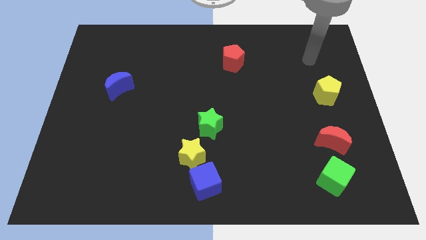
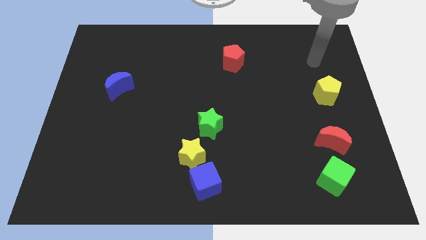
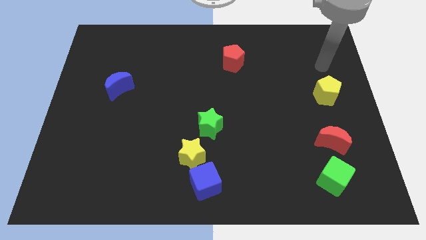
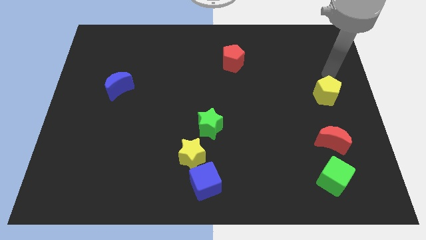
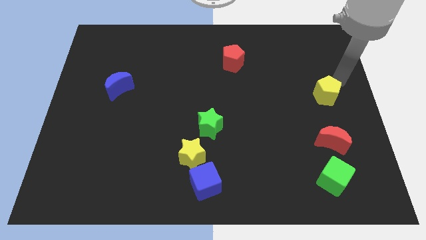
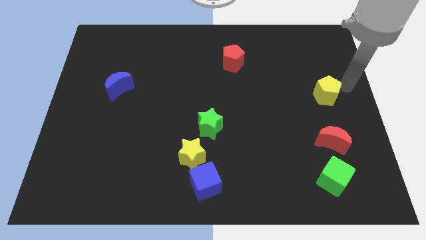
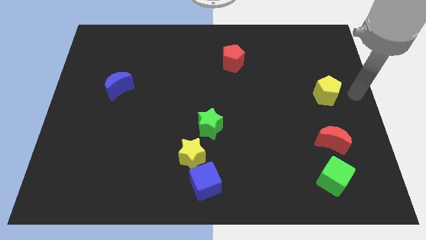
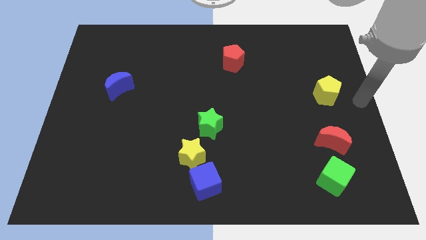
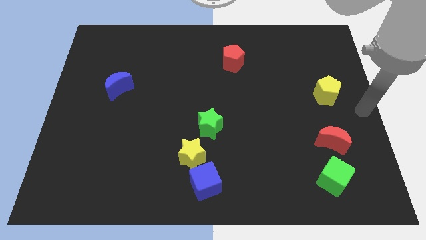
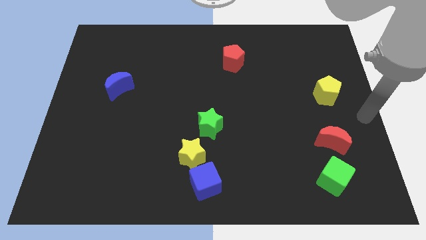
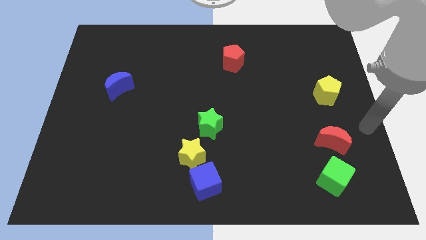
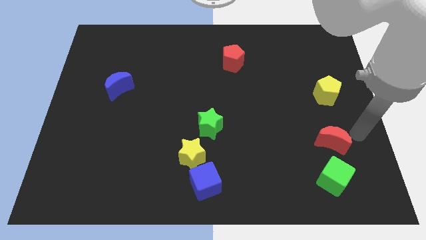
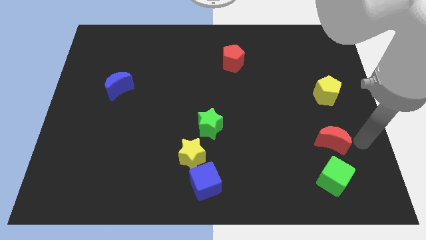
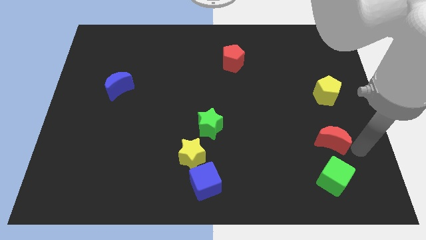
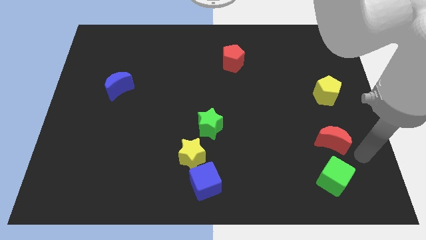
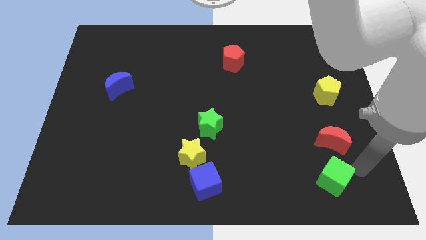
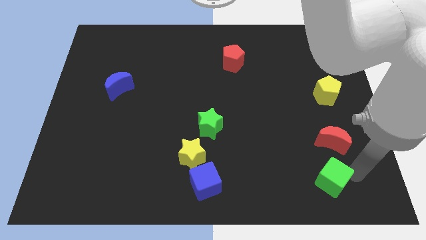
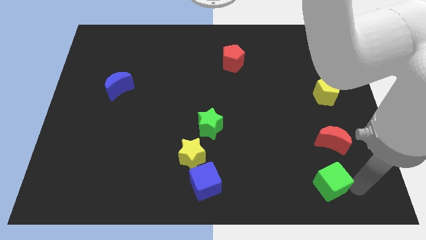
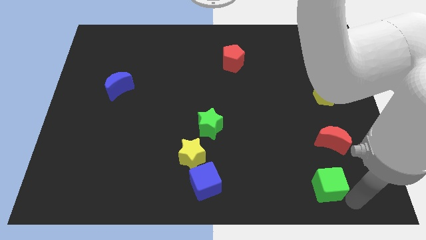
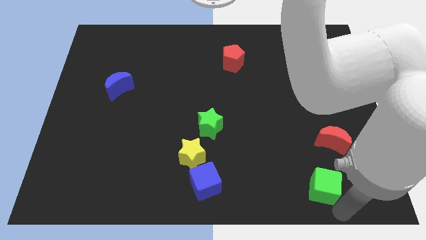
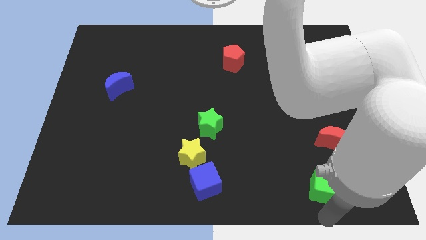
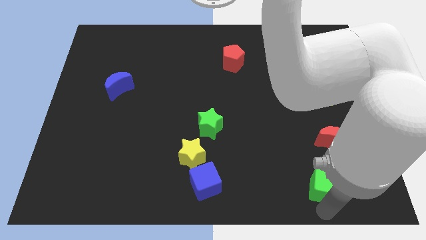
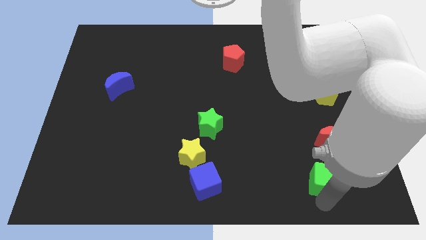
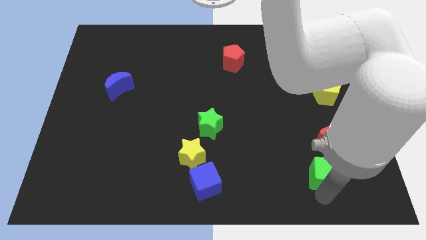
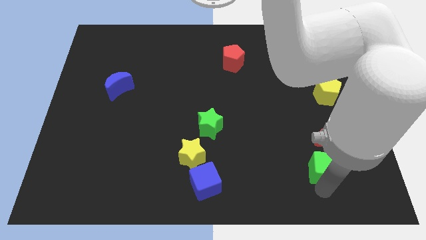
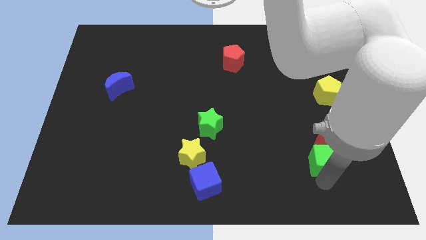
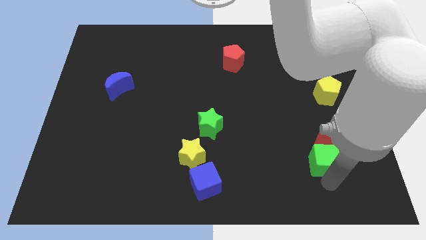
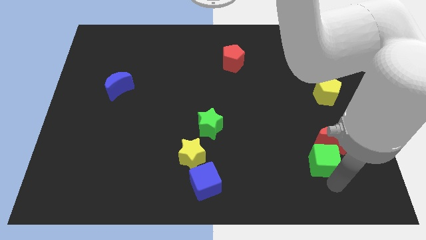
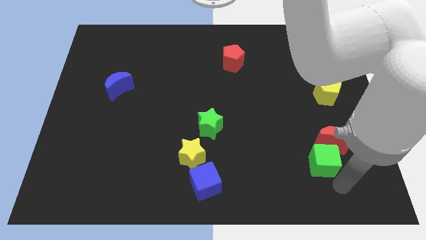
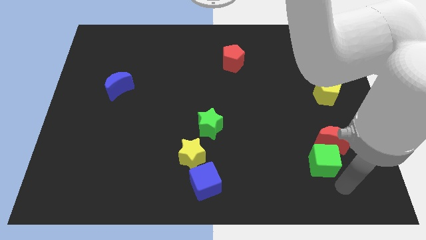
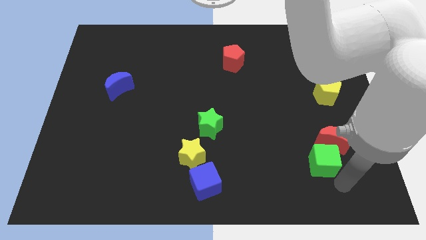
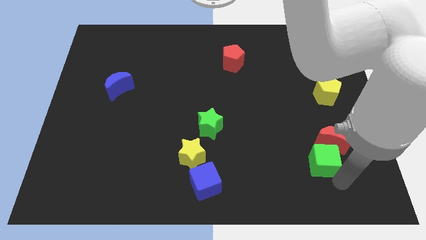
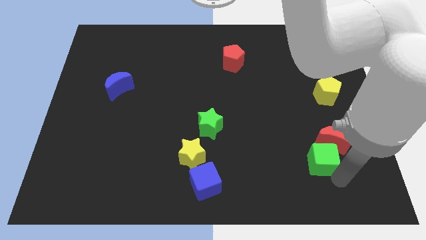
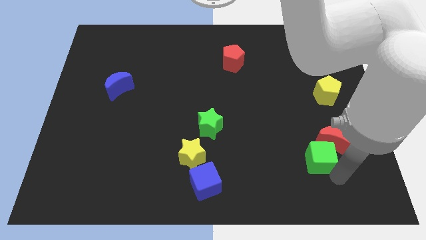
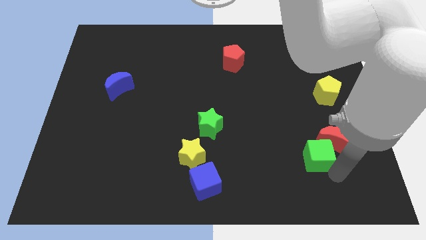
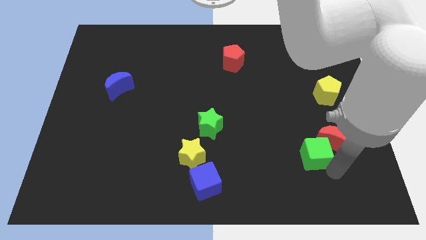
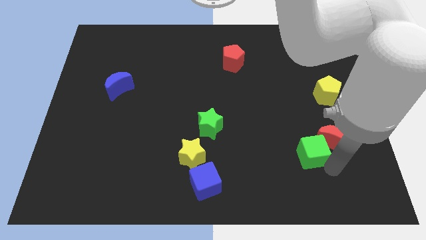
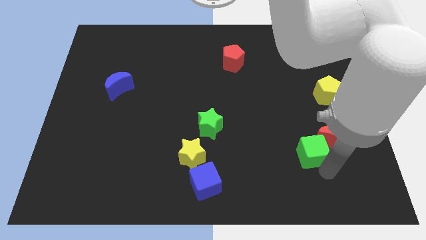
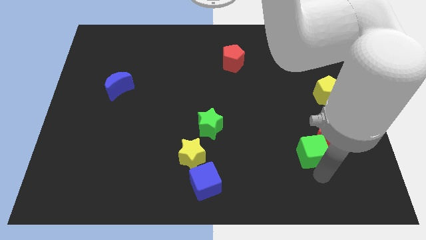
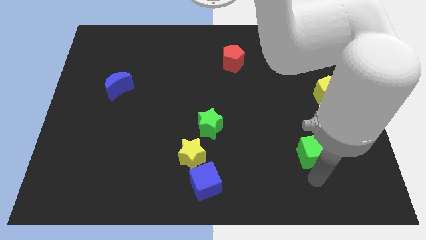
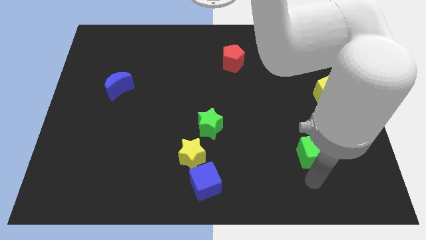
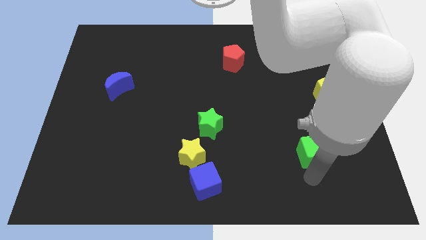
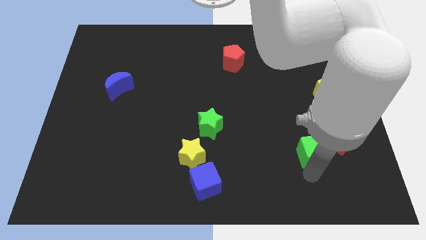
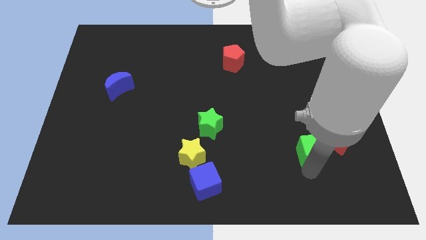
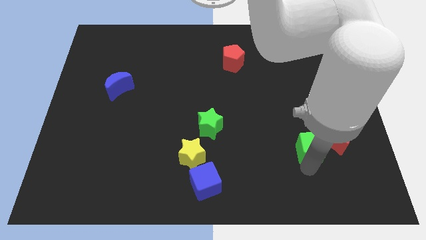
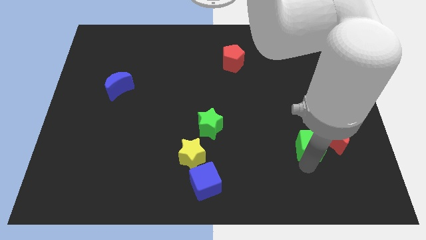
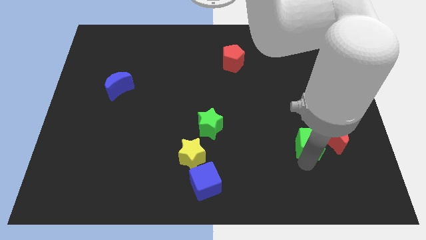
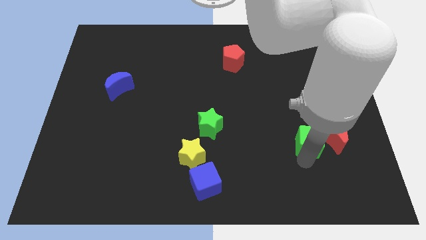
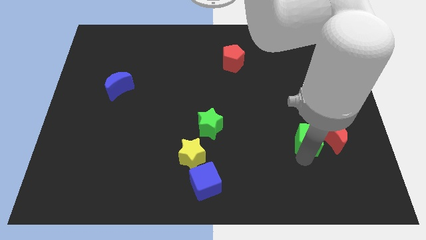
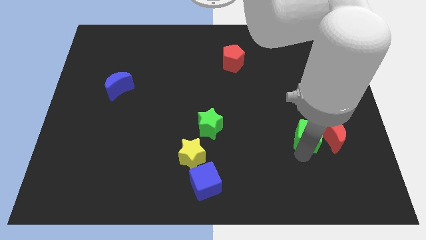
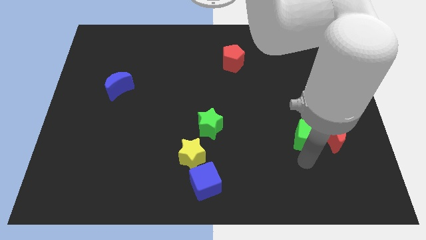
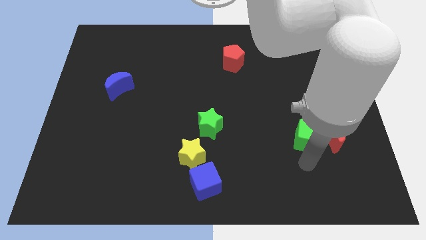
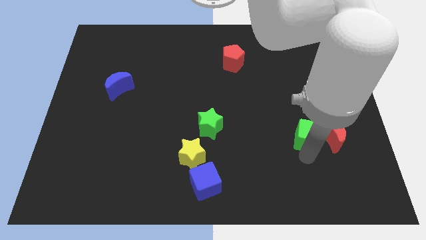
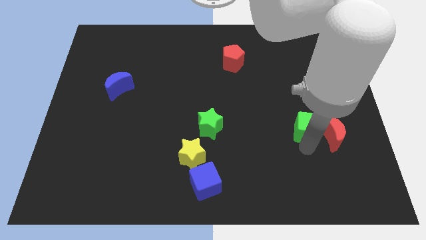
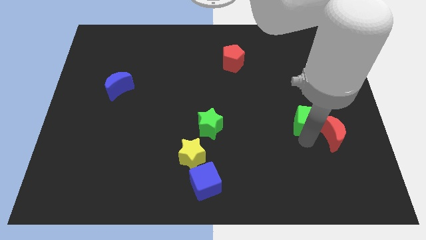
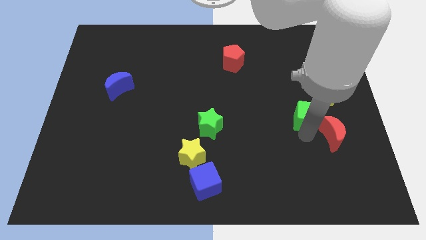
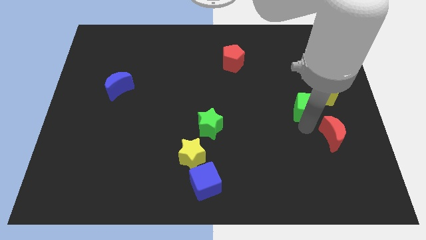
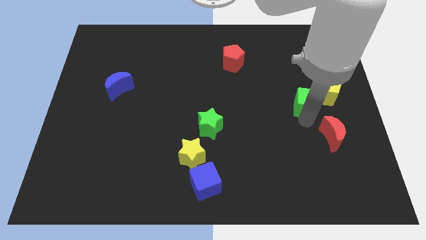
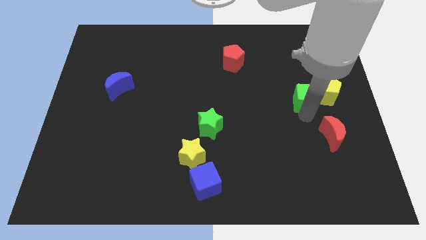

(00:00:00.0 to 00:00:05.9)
move the green cube up

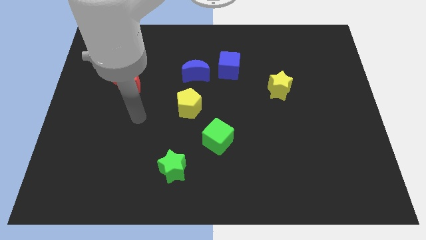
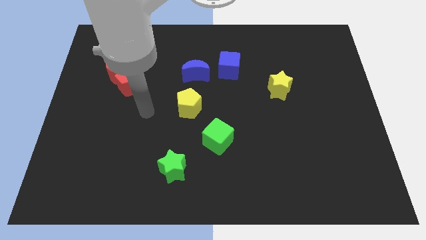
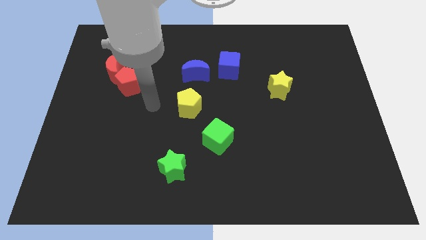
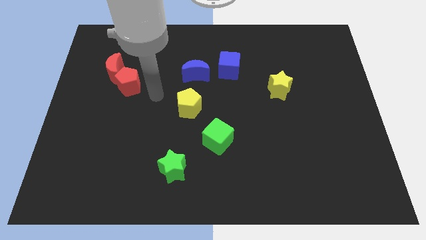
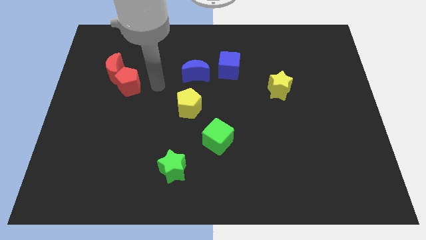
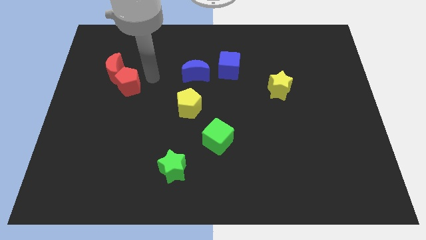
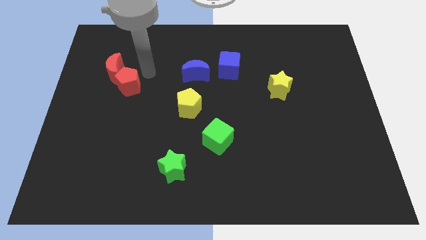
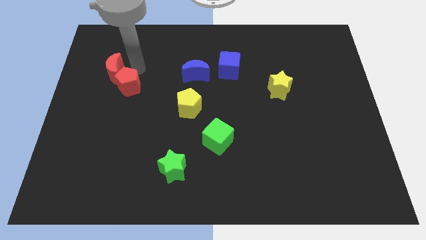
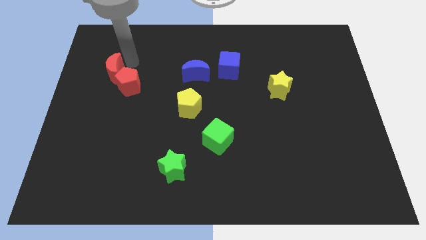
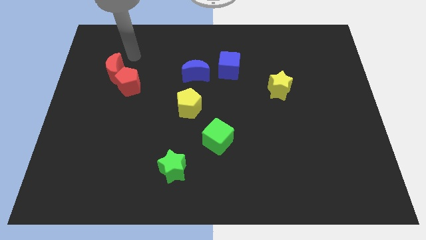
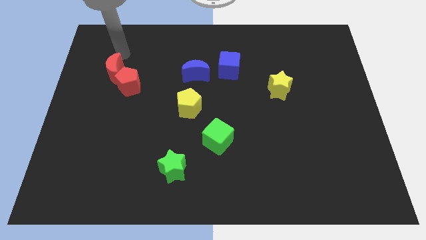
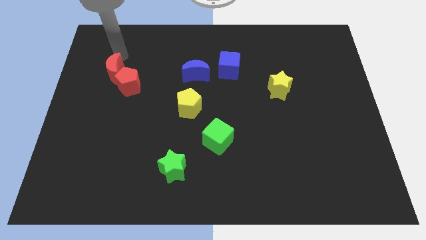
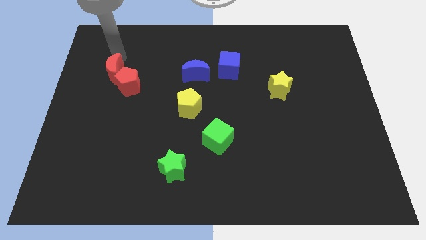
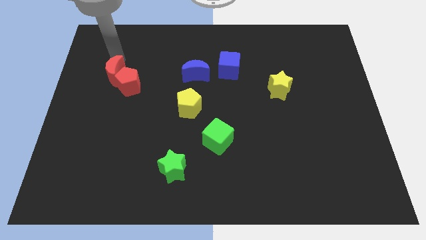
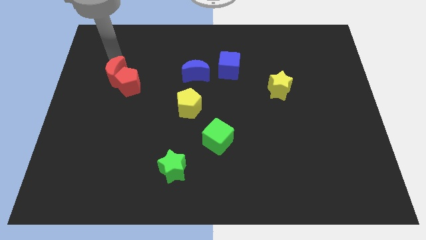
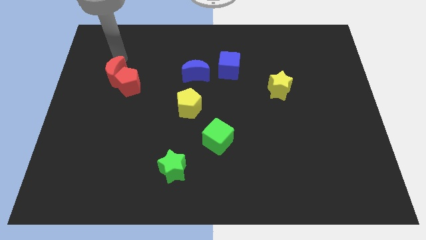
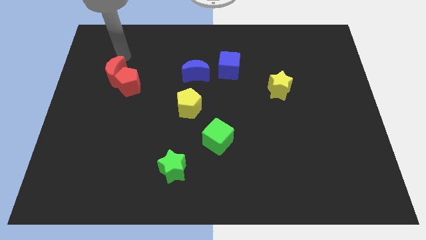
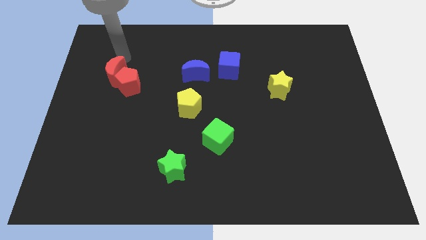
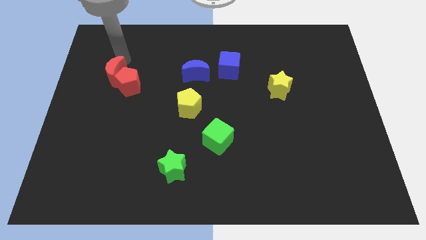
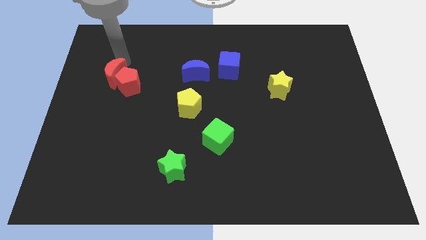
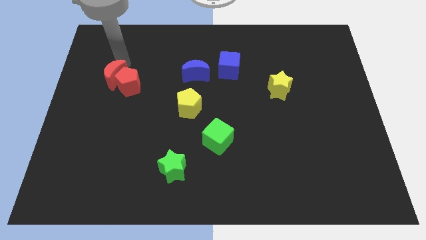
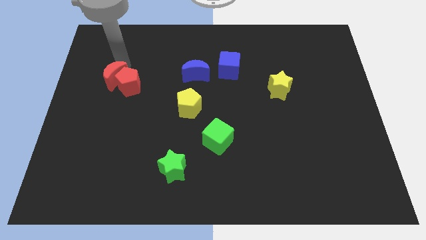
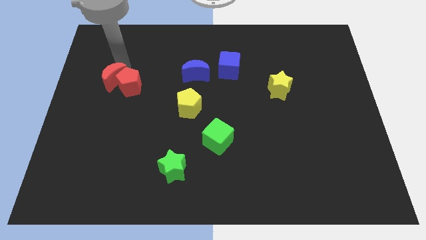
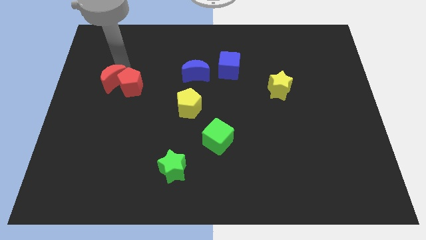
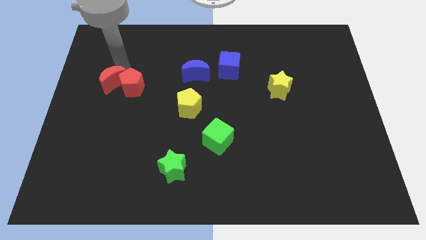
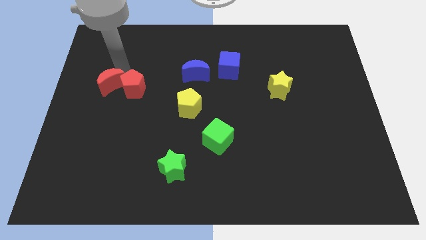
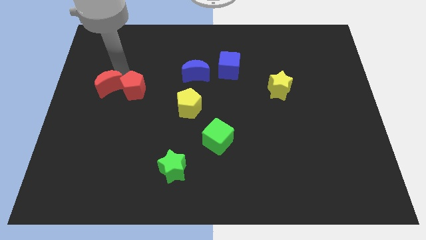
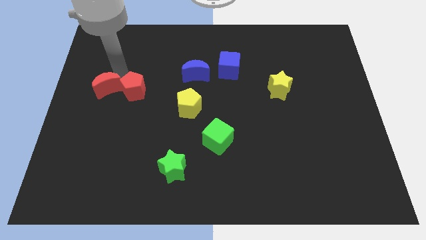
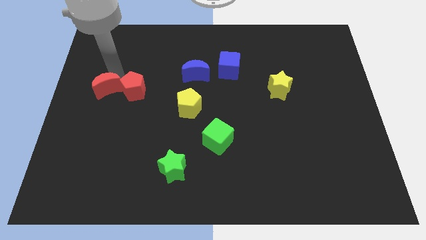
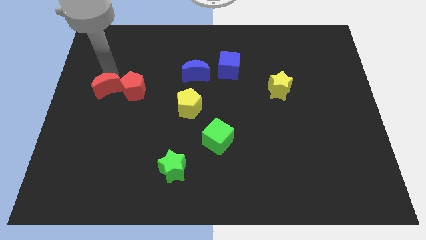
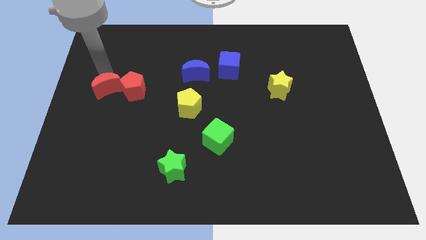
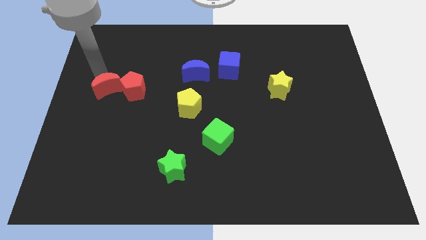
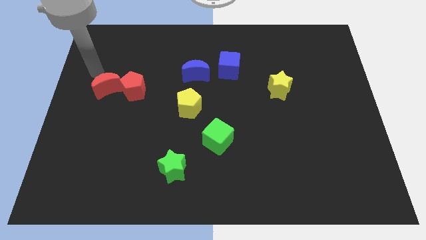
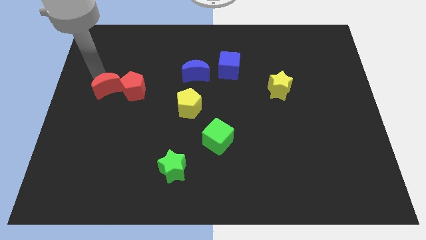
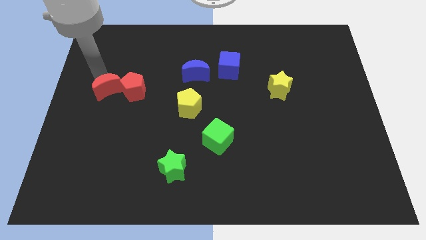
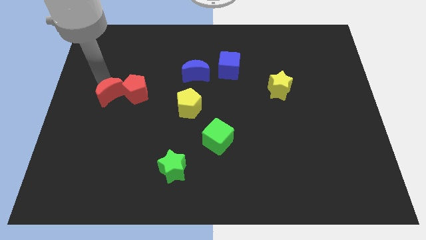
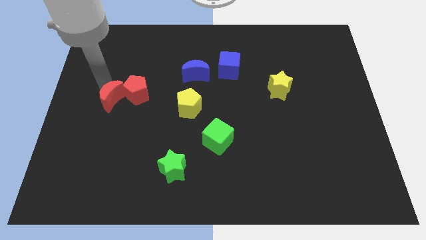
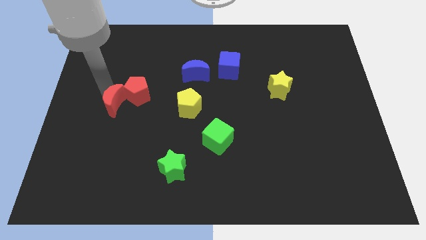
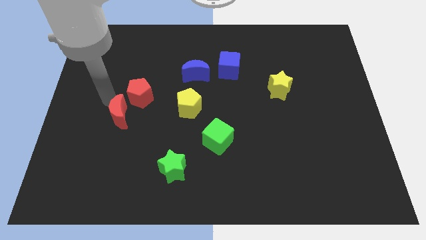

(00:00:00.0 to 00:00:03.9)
slightly push the red moon down and to the right diagonally
